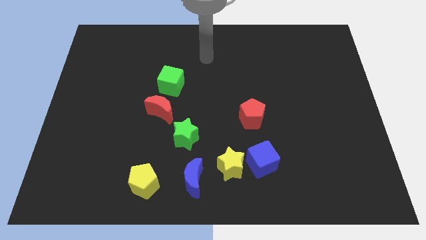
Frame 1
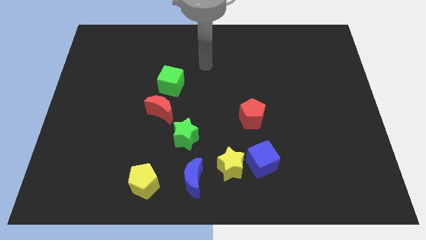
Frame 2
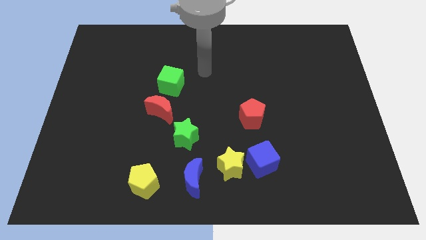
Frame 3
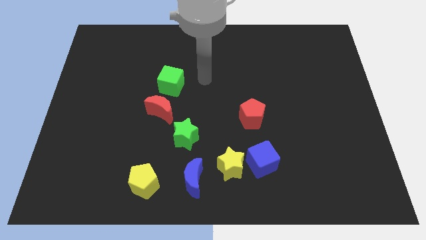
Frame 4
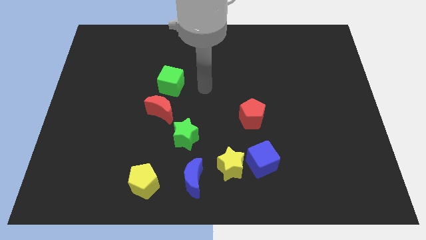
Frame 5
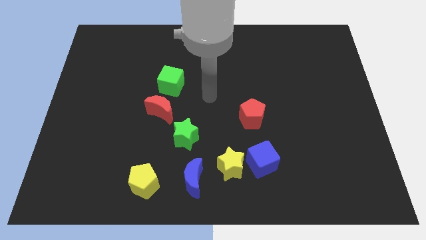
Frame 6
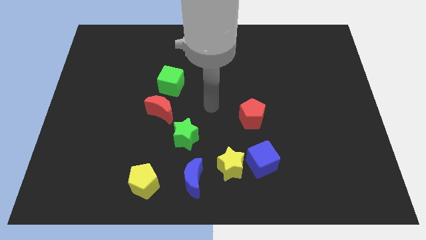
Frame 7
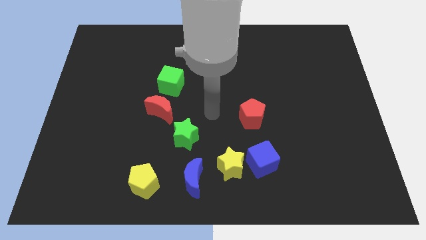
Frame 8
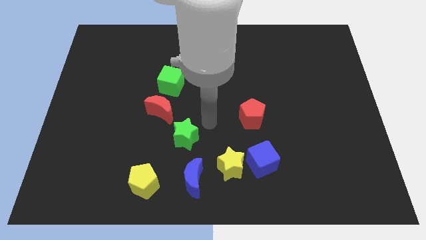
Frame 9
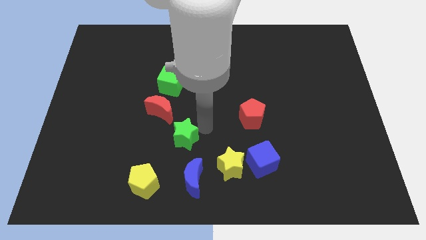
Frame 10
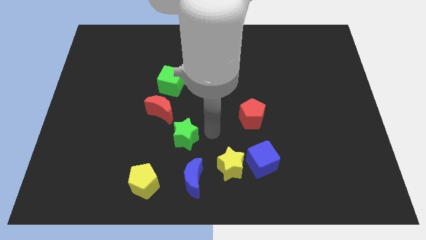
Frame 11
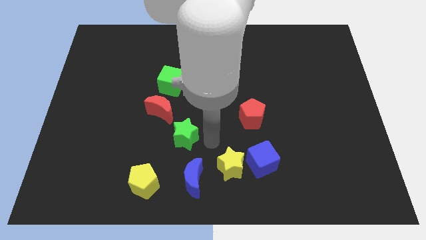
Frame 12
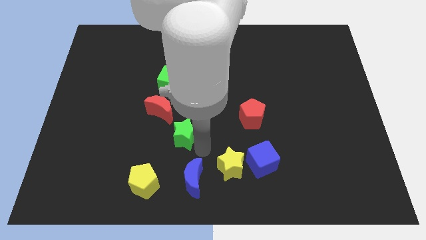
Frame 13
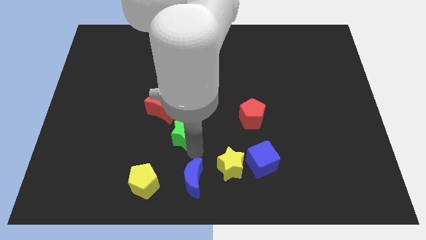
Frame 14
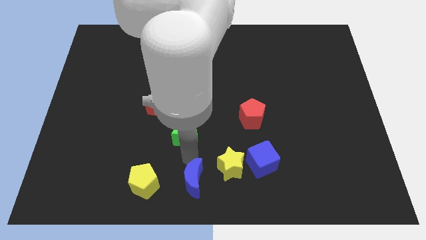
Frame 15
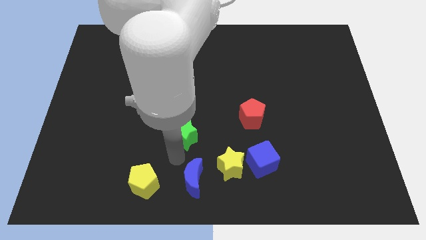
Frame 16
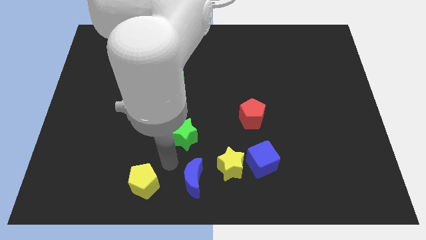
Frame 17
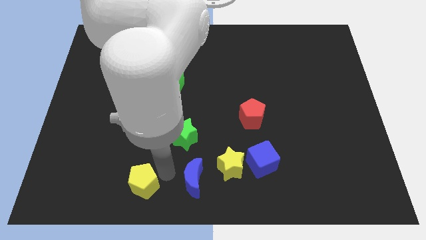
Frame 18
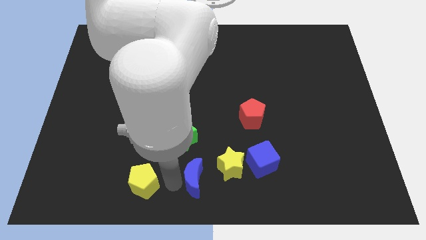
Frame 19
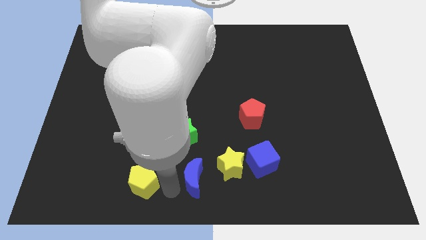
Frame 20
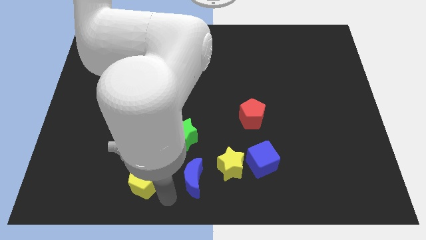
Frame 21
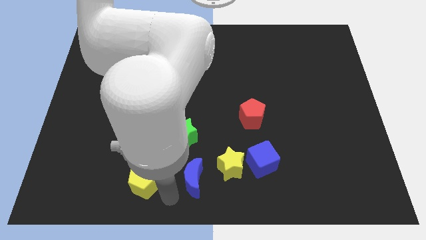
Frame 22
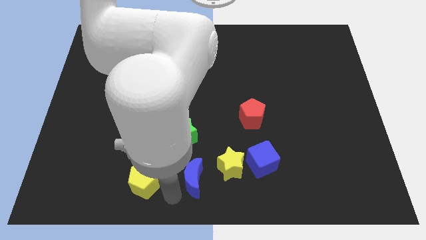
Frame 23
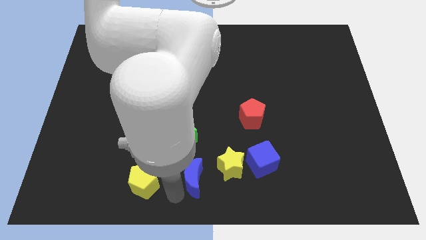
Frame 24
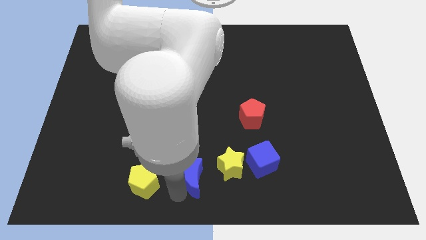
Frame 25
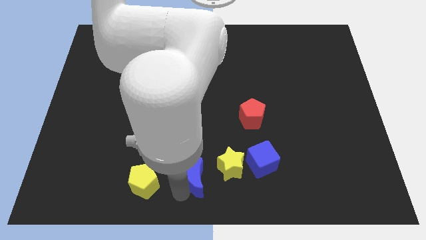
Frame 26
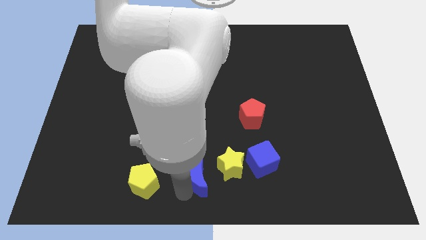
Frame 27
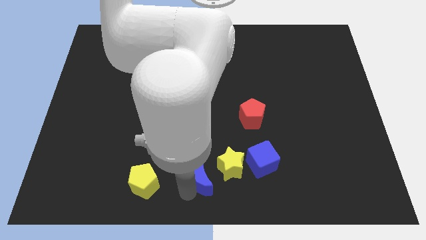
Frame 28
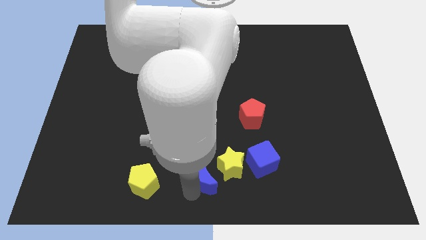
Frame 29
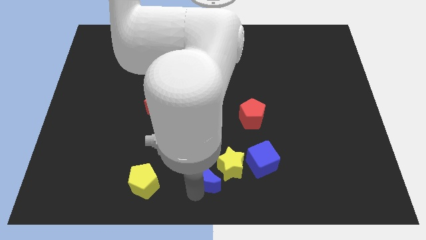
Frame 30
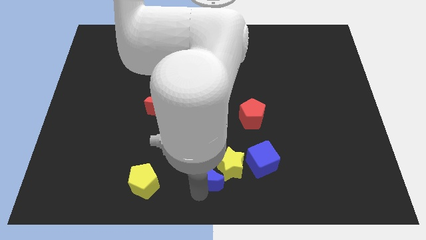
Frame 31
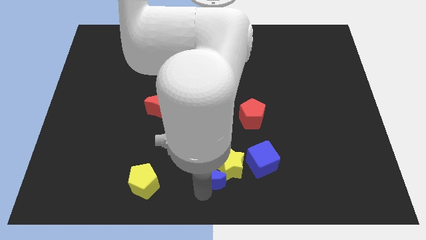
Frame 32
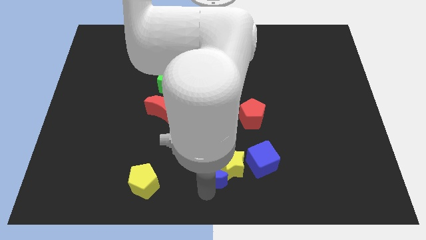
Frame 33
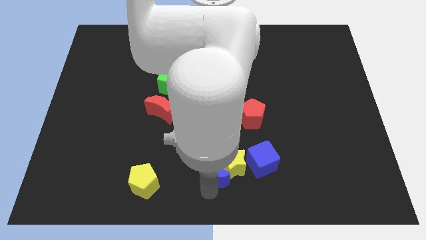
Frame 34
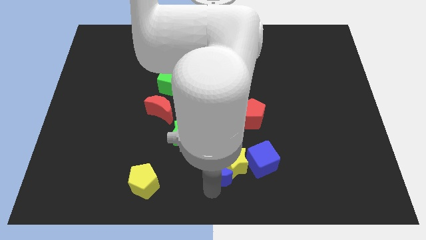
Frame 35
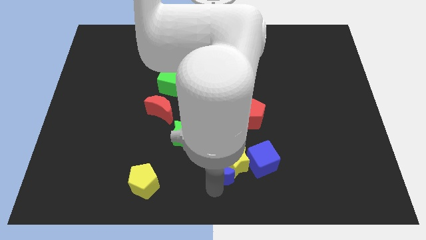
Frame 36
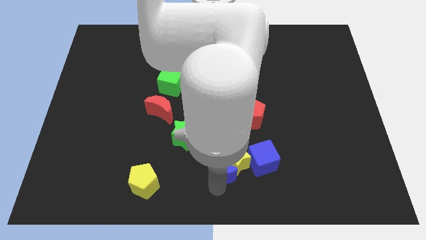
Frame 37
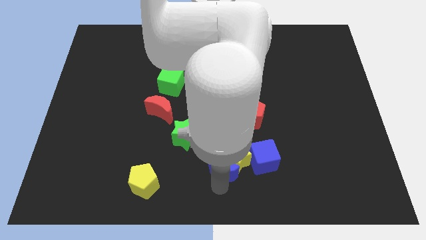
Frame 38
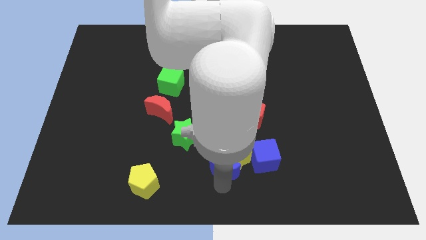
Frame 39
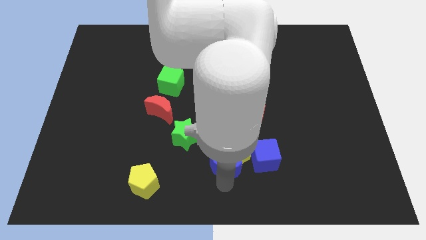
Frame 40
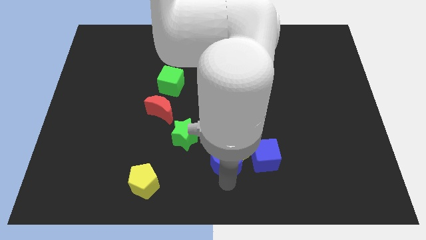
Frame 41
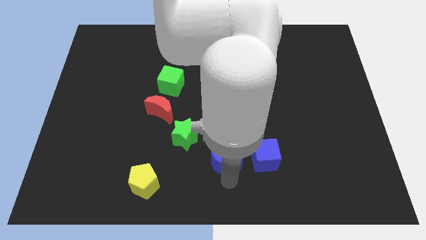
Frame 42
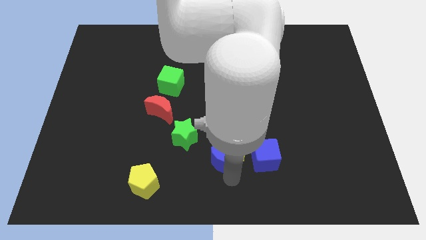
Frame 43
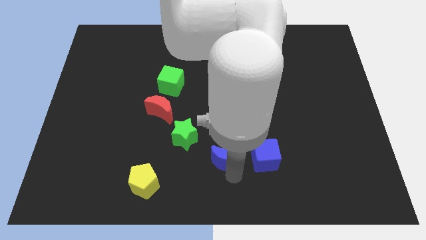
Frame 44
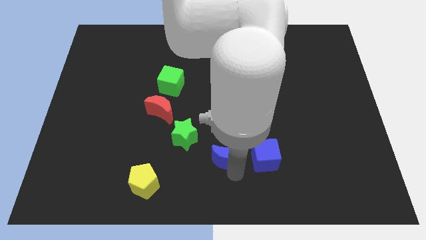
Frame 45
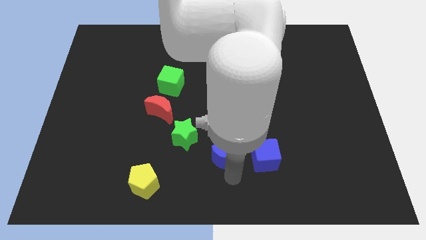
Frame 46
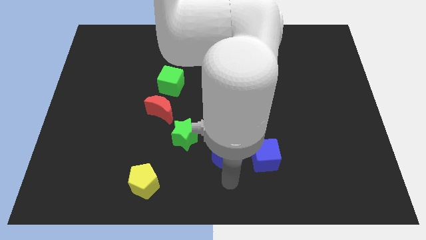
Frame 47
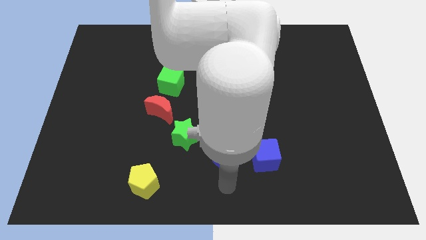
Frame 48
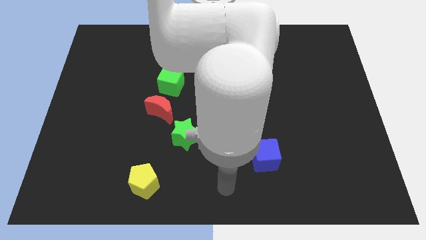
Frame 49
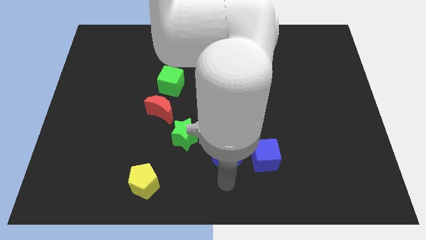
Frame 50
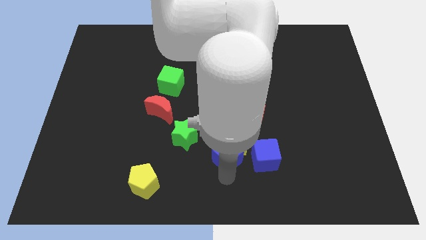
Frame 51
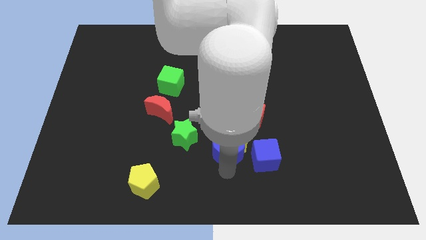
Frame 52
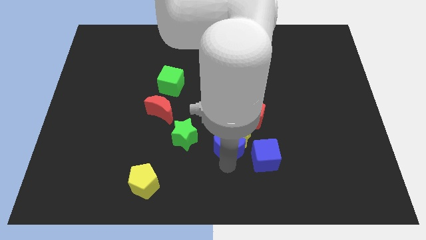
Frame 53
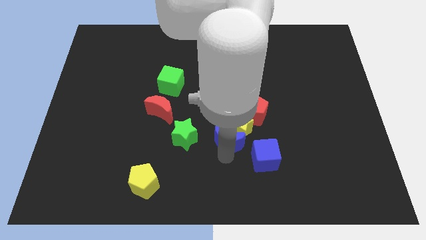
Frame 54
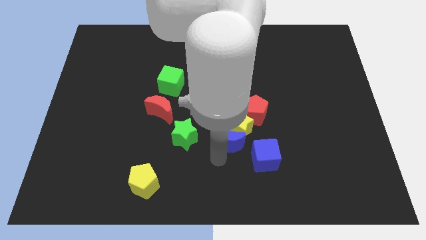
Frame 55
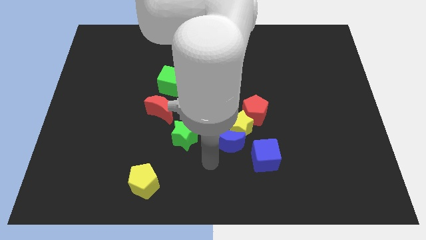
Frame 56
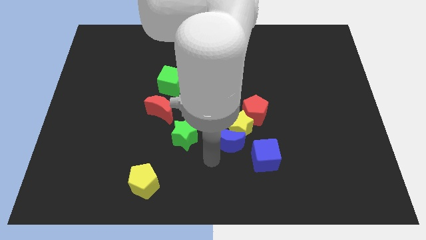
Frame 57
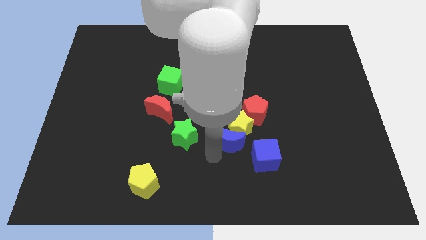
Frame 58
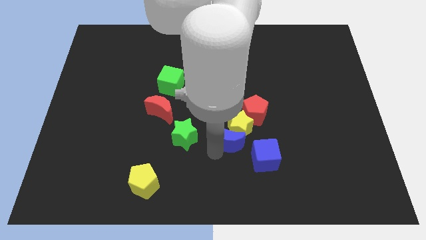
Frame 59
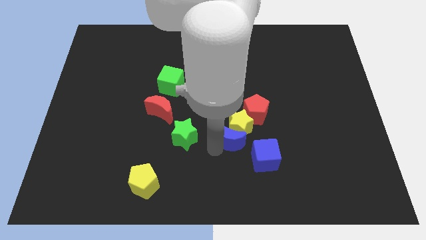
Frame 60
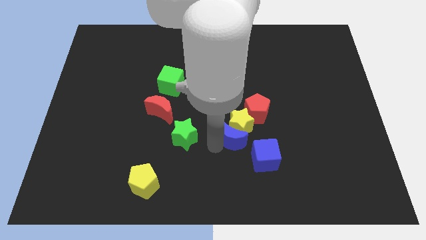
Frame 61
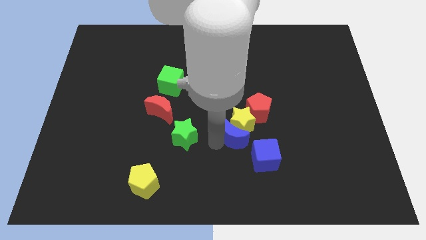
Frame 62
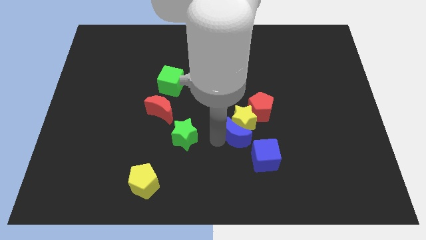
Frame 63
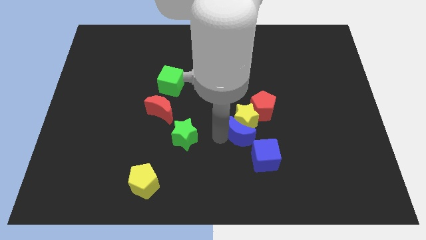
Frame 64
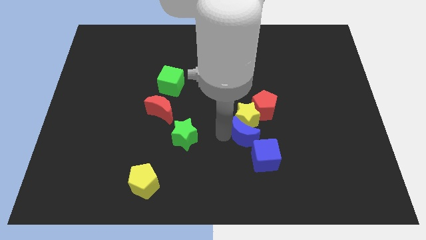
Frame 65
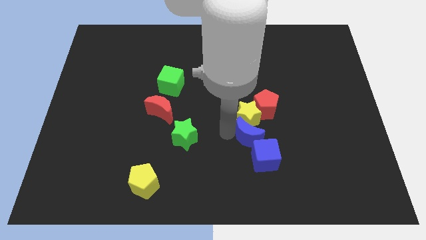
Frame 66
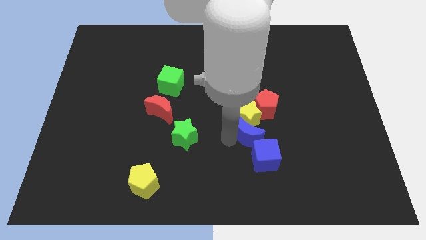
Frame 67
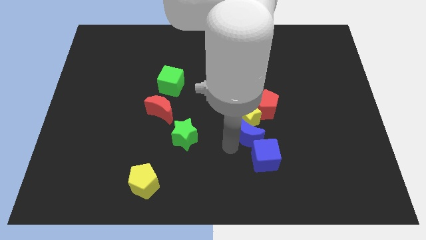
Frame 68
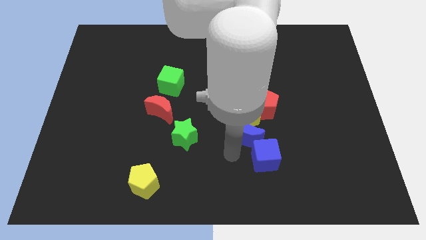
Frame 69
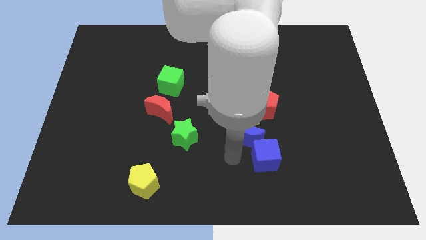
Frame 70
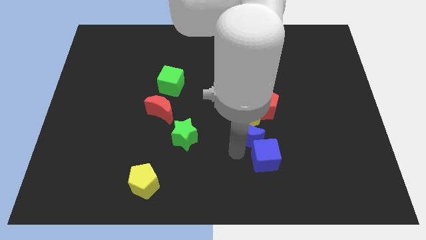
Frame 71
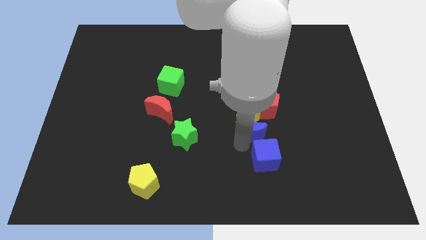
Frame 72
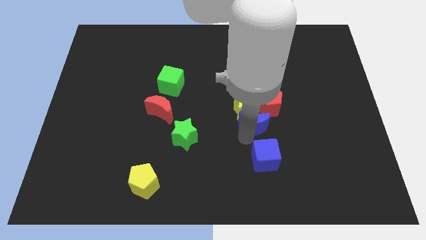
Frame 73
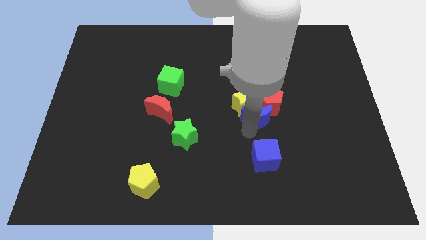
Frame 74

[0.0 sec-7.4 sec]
move the blue moon next to the red pentagon

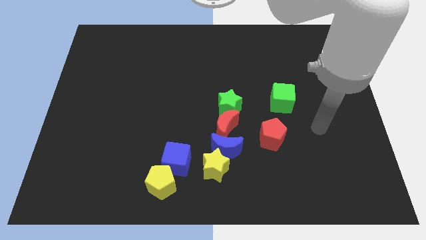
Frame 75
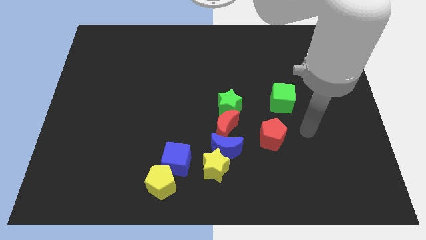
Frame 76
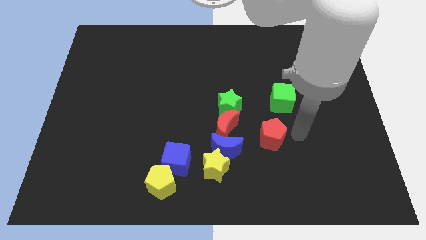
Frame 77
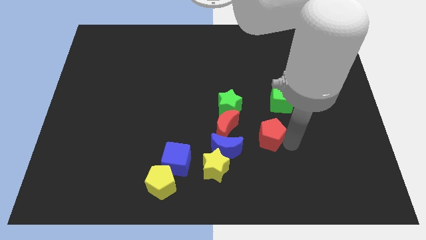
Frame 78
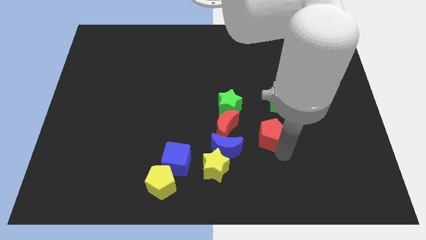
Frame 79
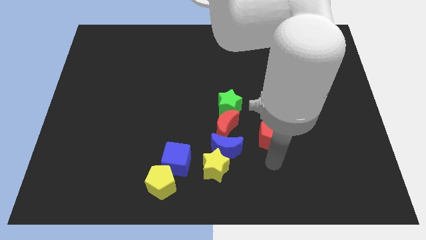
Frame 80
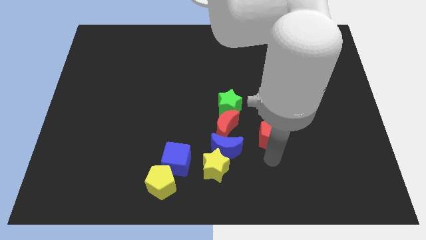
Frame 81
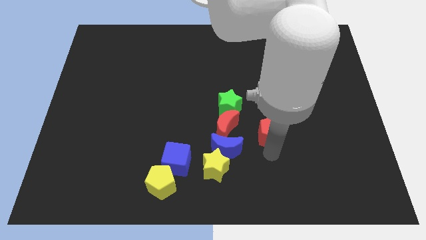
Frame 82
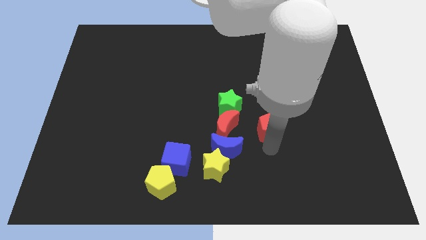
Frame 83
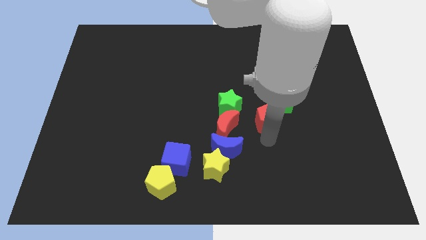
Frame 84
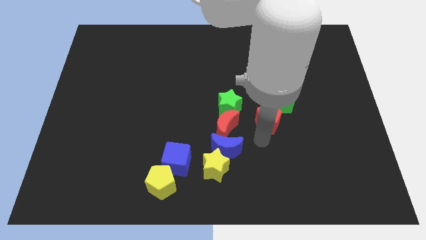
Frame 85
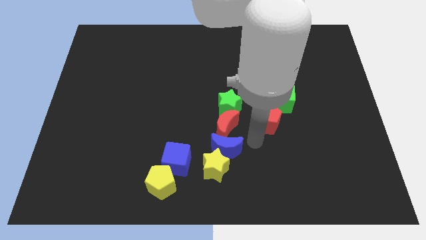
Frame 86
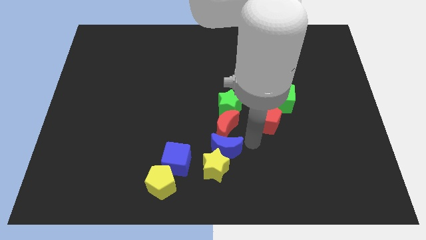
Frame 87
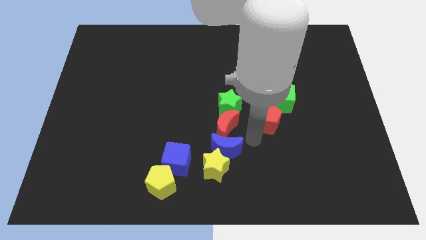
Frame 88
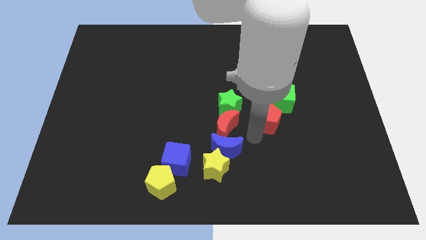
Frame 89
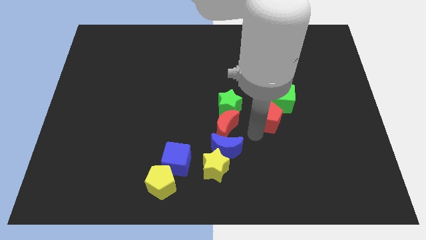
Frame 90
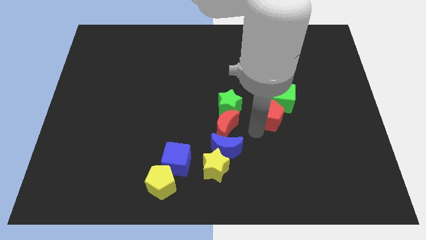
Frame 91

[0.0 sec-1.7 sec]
put the red pentagon to the green cube
